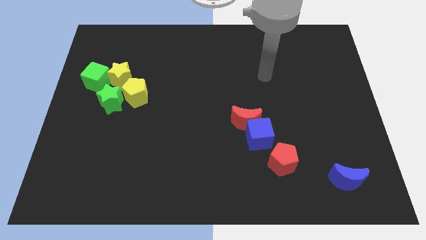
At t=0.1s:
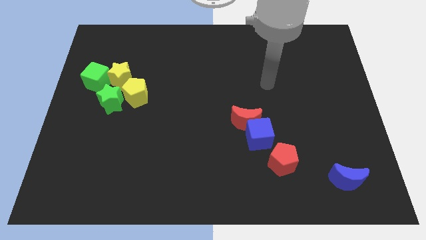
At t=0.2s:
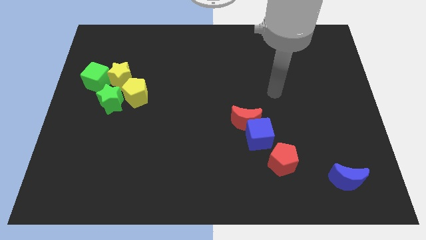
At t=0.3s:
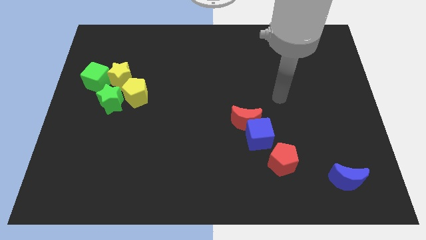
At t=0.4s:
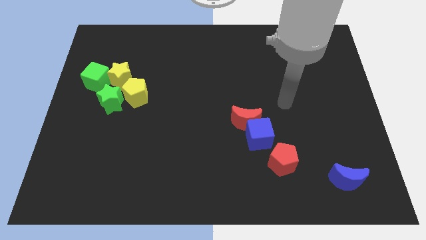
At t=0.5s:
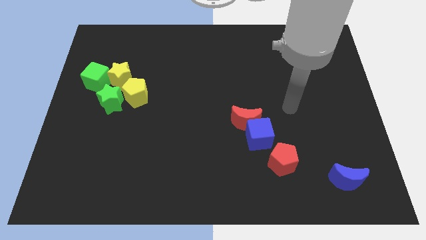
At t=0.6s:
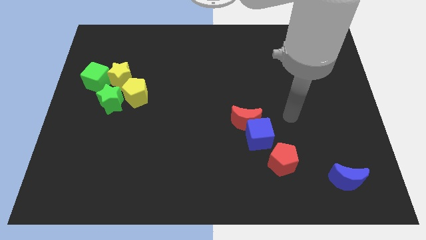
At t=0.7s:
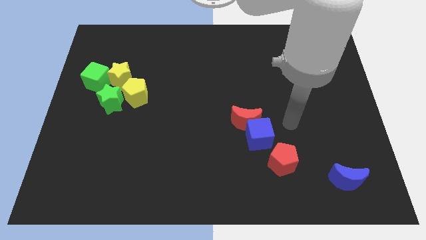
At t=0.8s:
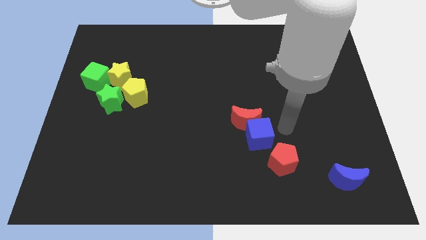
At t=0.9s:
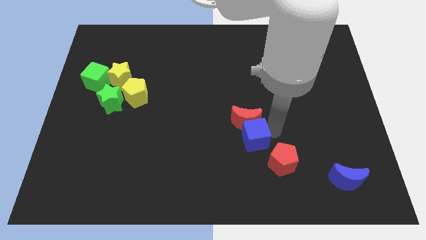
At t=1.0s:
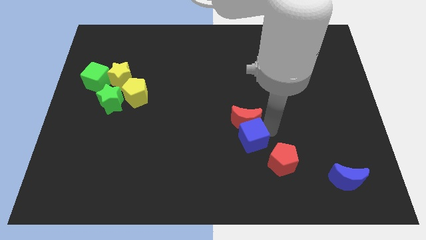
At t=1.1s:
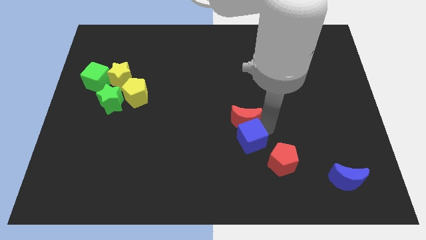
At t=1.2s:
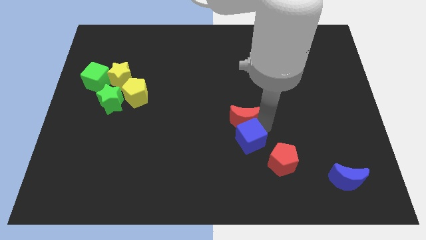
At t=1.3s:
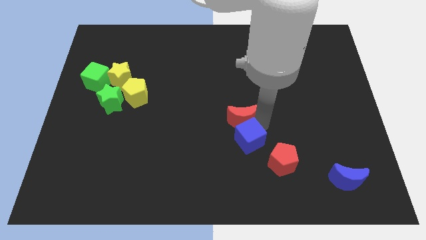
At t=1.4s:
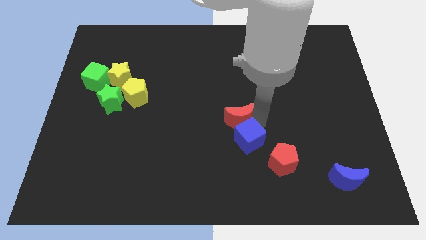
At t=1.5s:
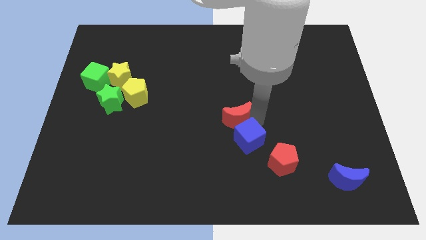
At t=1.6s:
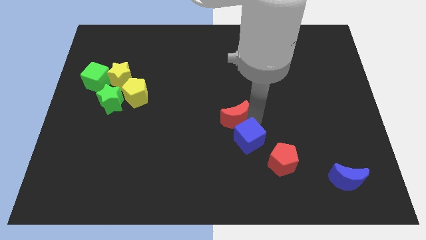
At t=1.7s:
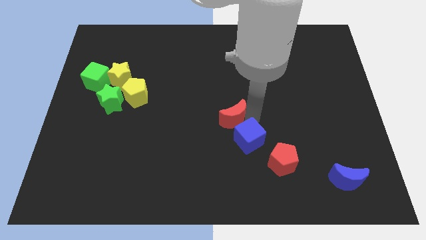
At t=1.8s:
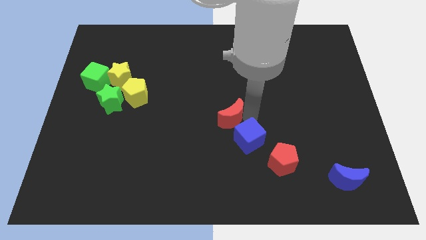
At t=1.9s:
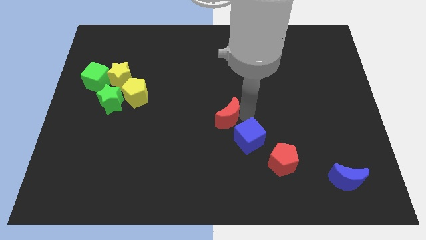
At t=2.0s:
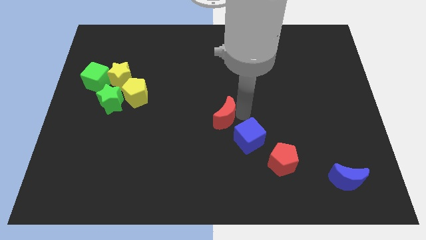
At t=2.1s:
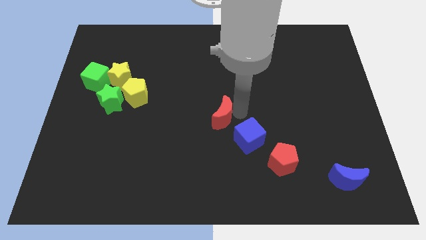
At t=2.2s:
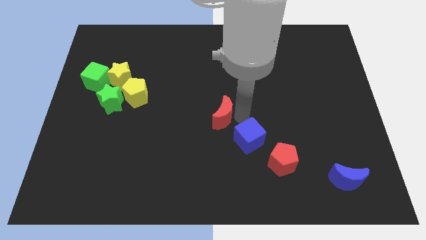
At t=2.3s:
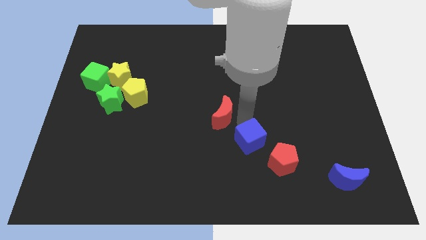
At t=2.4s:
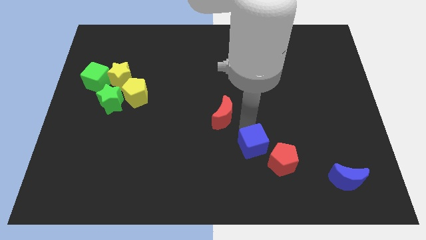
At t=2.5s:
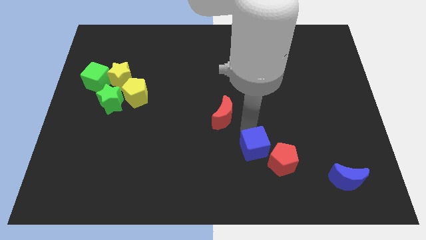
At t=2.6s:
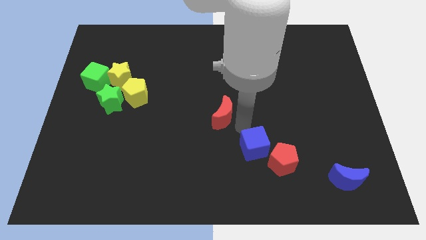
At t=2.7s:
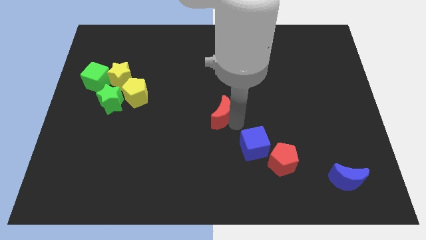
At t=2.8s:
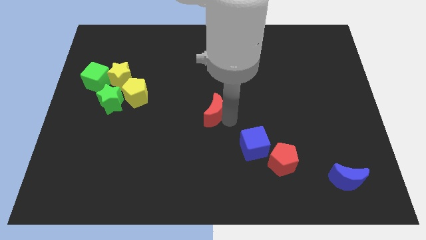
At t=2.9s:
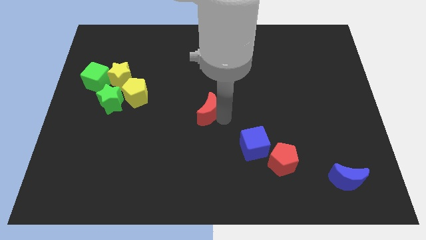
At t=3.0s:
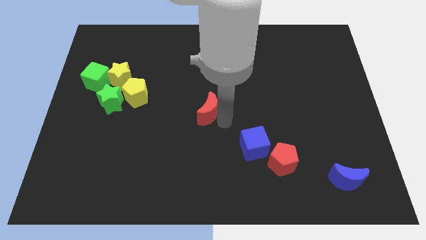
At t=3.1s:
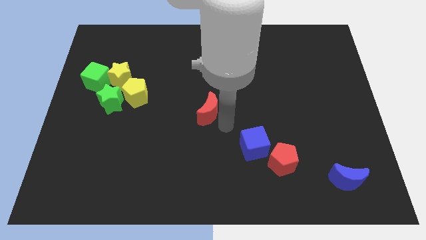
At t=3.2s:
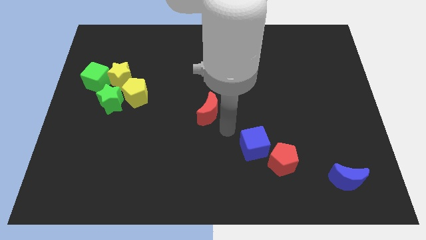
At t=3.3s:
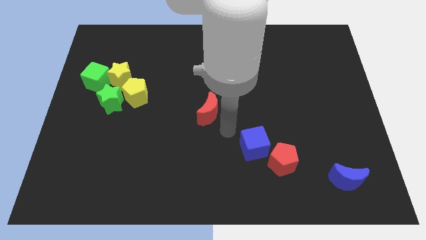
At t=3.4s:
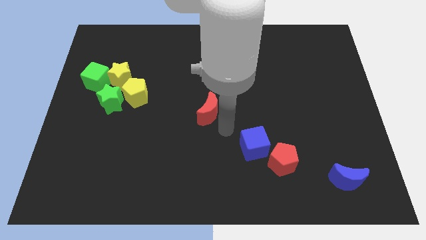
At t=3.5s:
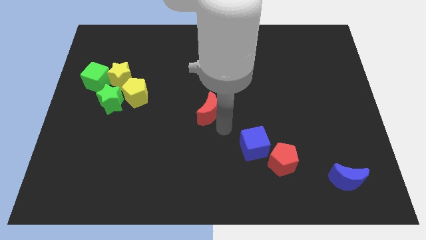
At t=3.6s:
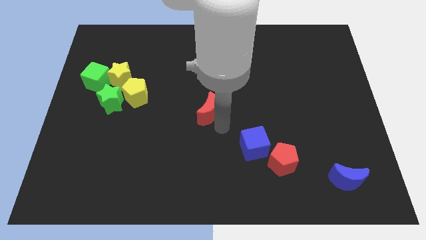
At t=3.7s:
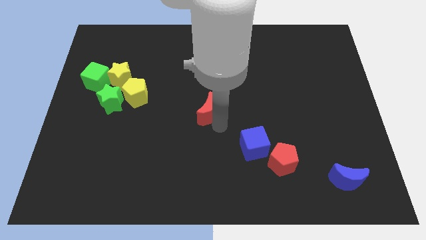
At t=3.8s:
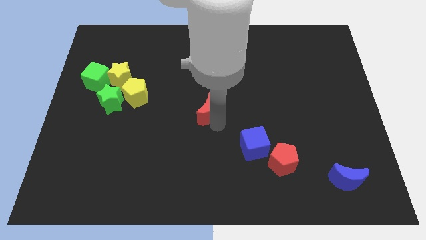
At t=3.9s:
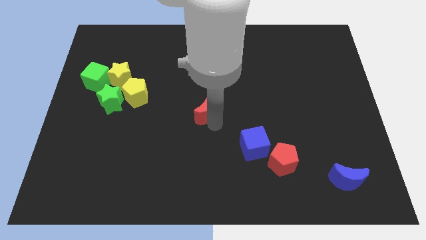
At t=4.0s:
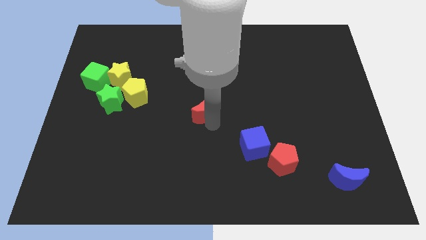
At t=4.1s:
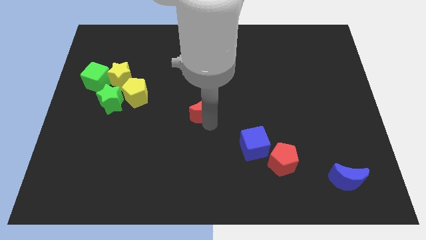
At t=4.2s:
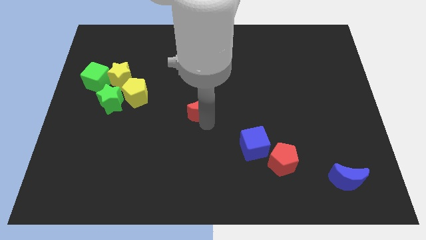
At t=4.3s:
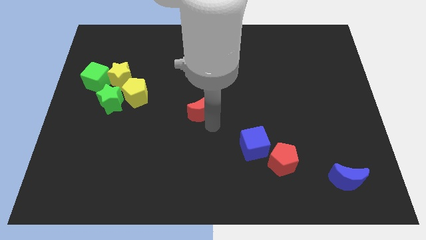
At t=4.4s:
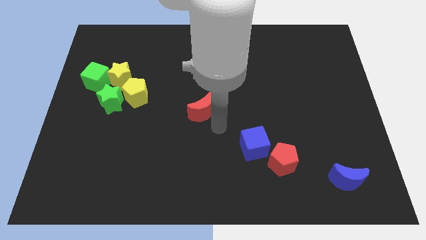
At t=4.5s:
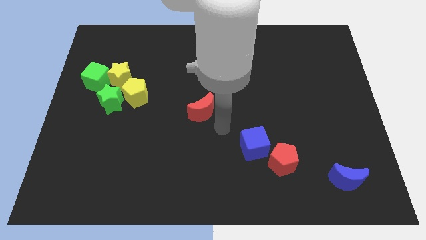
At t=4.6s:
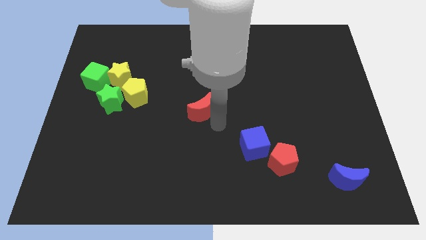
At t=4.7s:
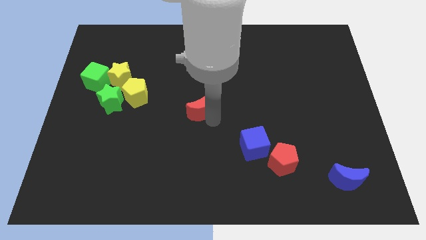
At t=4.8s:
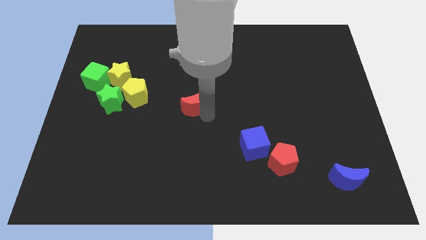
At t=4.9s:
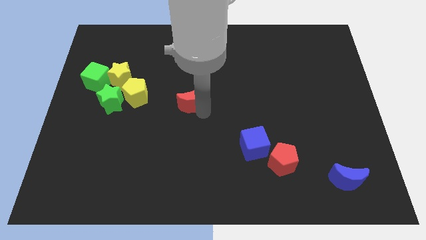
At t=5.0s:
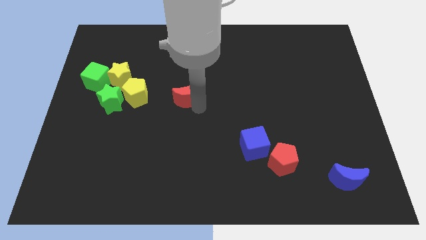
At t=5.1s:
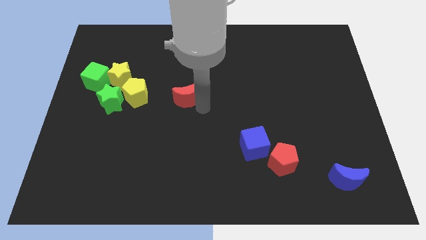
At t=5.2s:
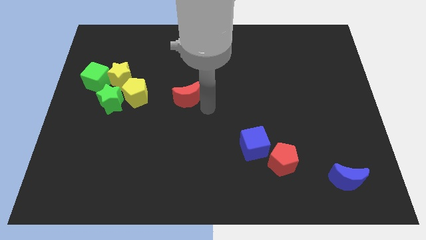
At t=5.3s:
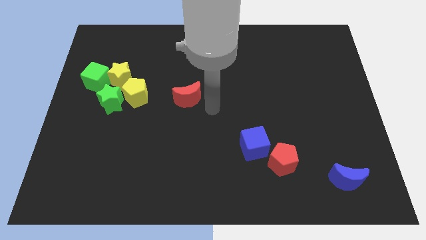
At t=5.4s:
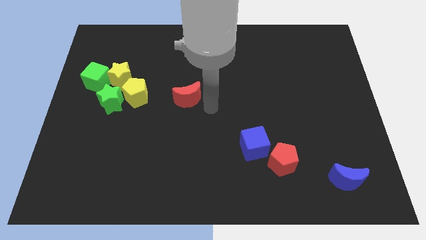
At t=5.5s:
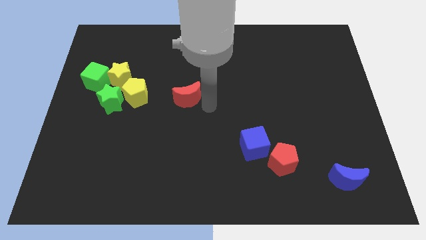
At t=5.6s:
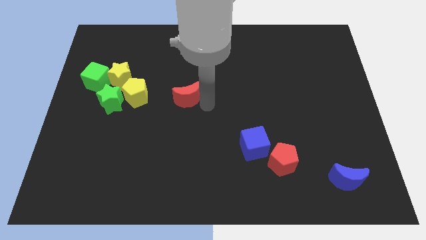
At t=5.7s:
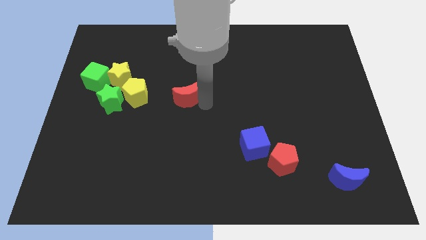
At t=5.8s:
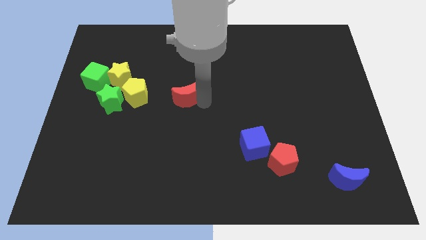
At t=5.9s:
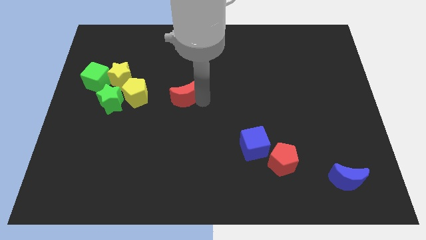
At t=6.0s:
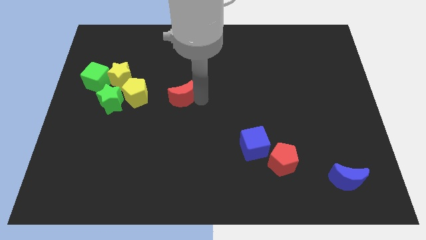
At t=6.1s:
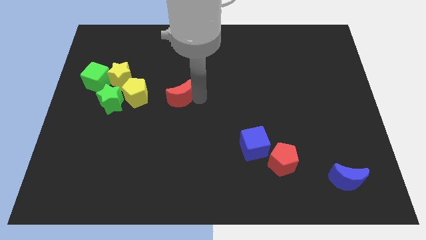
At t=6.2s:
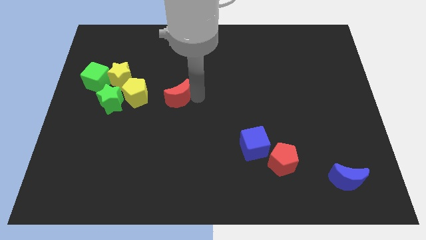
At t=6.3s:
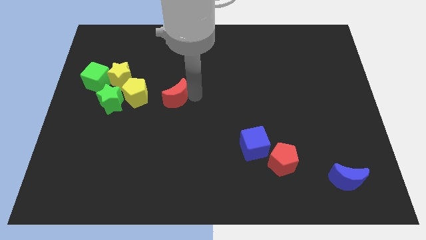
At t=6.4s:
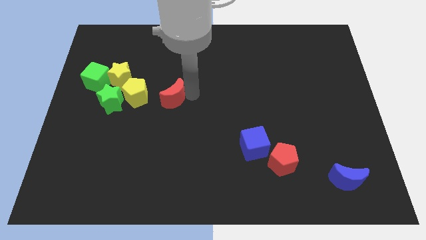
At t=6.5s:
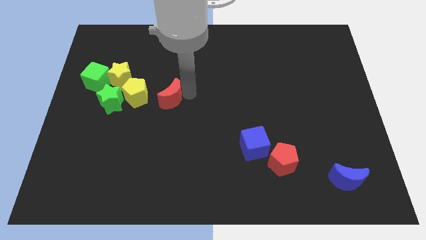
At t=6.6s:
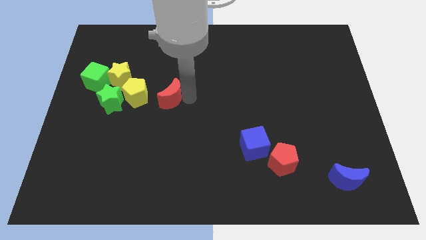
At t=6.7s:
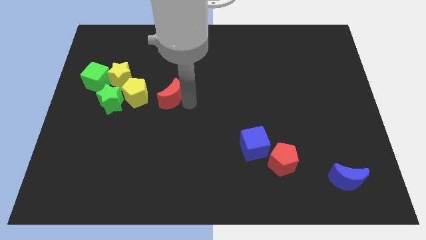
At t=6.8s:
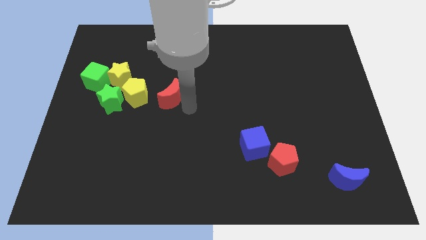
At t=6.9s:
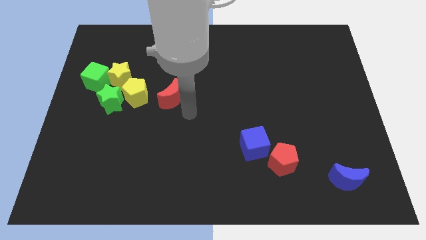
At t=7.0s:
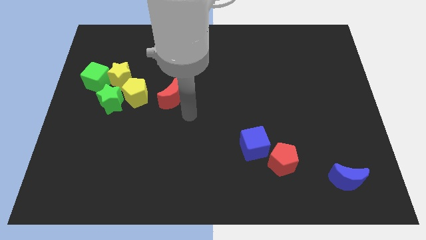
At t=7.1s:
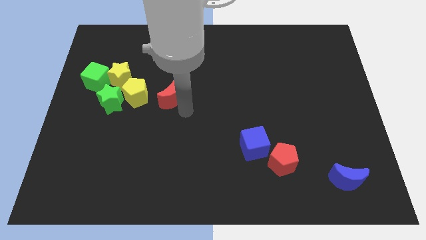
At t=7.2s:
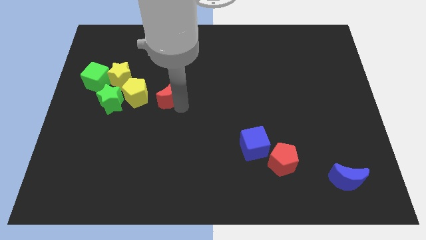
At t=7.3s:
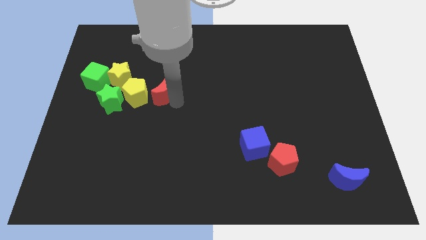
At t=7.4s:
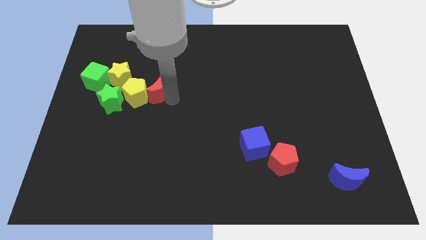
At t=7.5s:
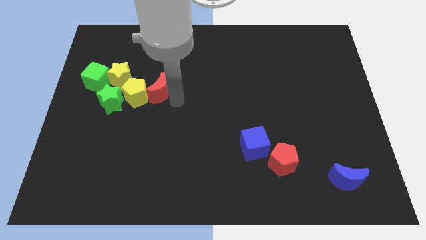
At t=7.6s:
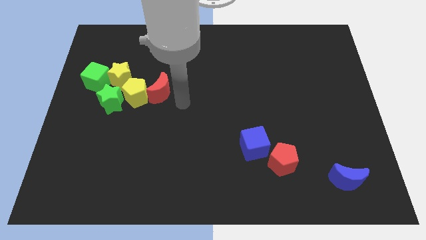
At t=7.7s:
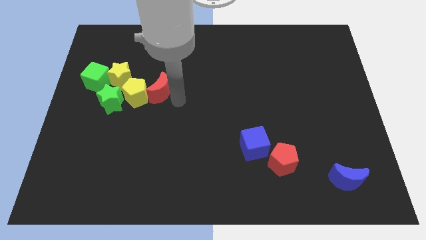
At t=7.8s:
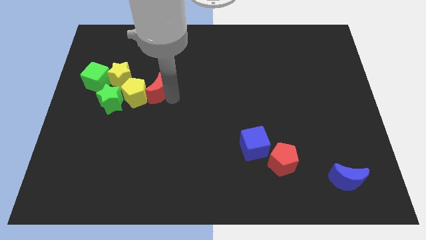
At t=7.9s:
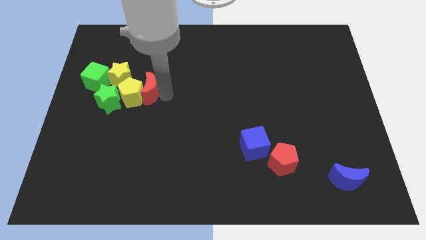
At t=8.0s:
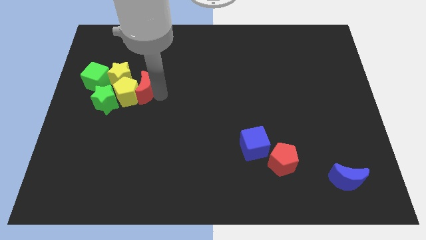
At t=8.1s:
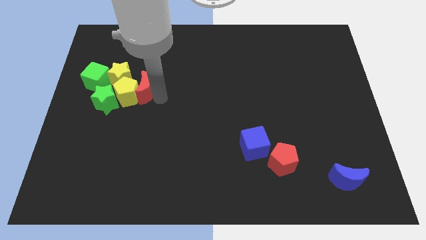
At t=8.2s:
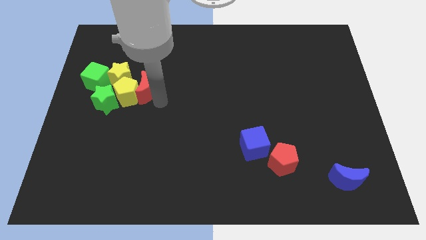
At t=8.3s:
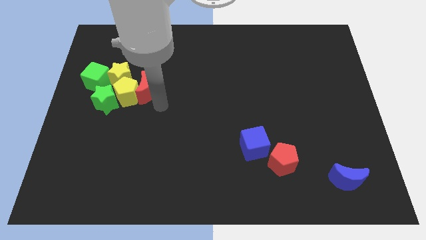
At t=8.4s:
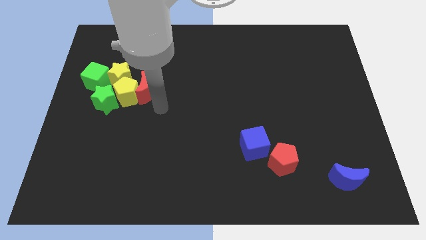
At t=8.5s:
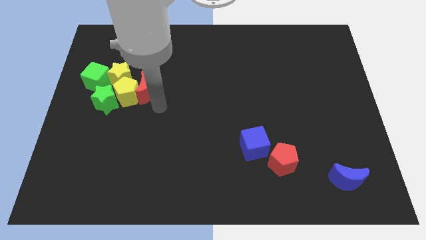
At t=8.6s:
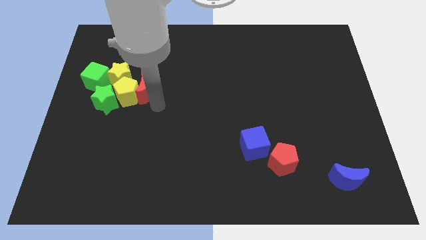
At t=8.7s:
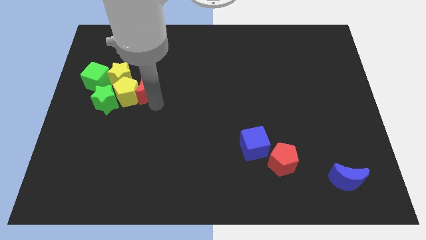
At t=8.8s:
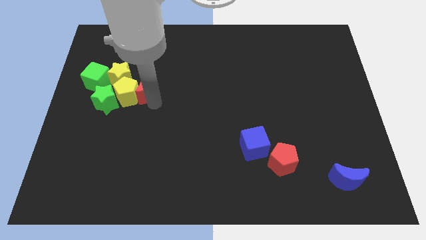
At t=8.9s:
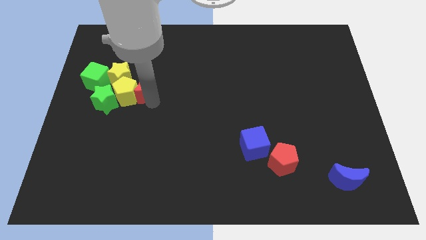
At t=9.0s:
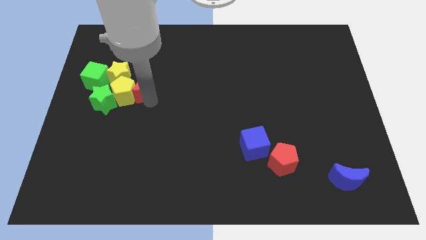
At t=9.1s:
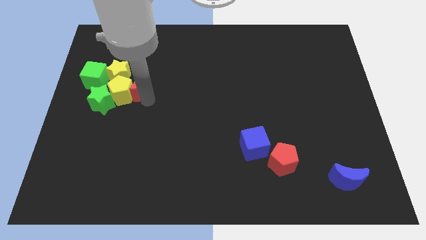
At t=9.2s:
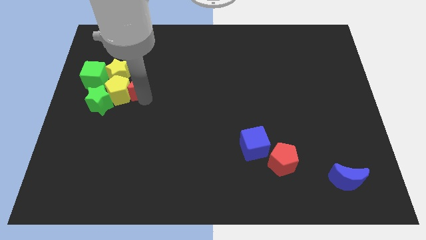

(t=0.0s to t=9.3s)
slide the red moon next to the yellow star
